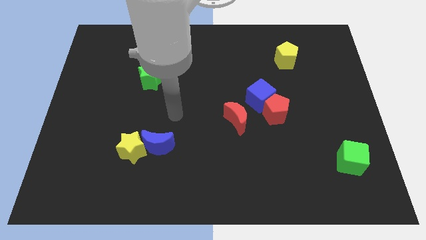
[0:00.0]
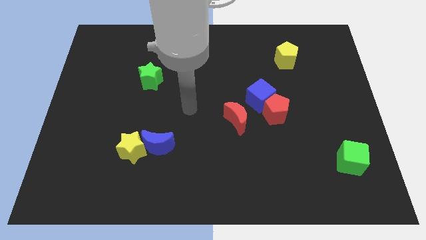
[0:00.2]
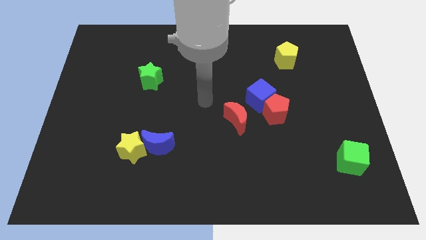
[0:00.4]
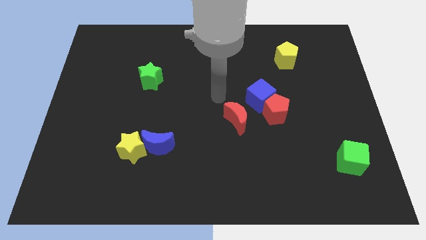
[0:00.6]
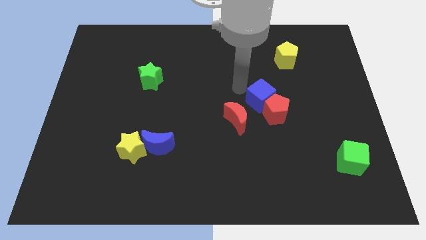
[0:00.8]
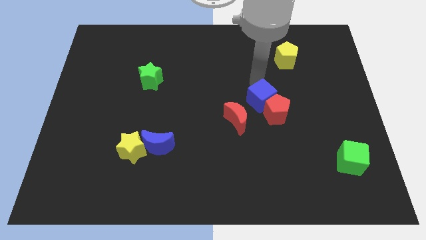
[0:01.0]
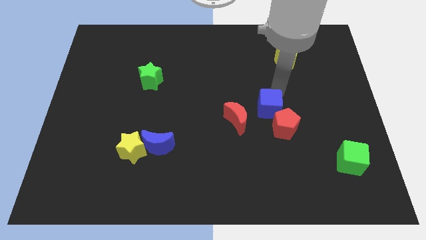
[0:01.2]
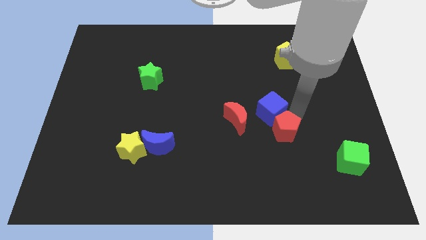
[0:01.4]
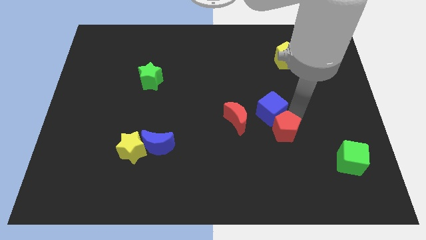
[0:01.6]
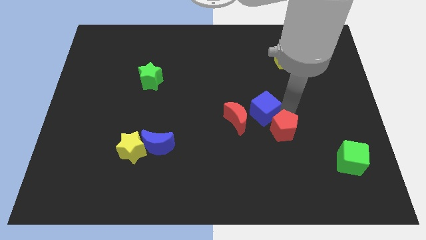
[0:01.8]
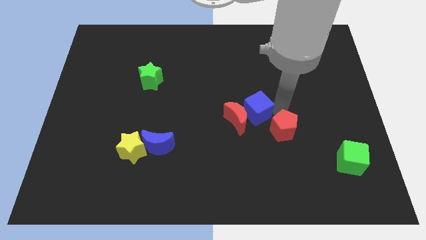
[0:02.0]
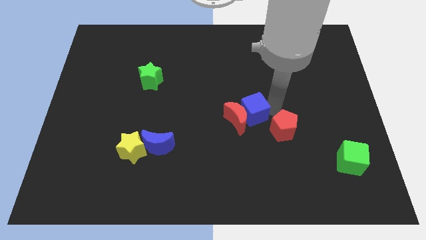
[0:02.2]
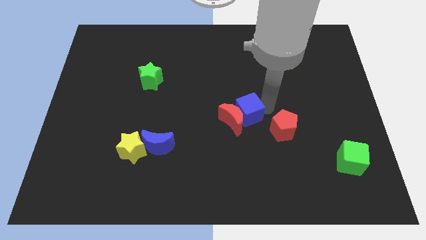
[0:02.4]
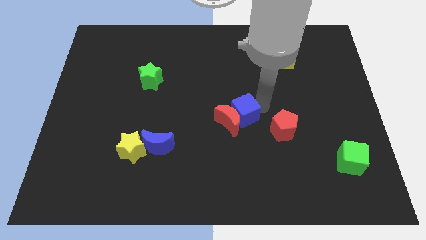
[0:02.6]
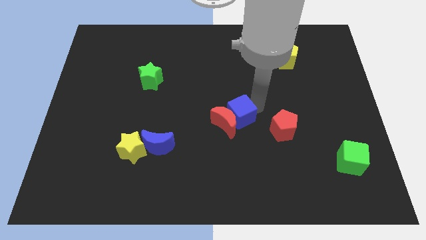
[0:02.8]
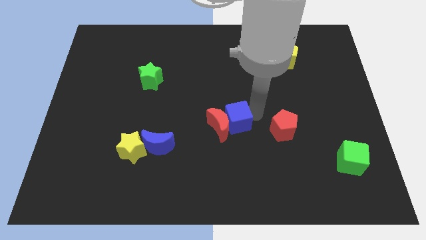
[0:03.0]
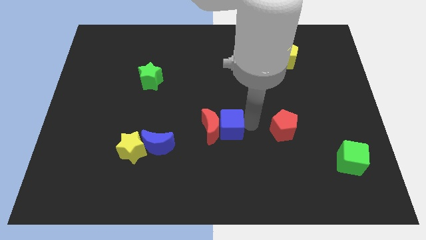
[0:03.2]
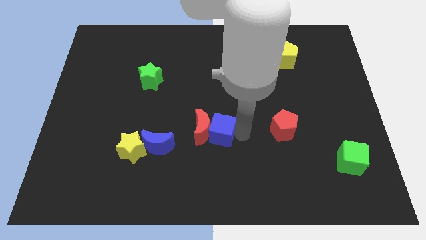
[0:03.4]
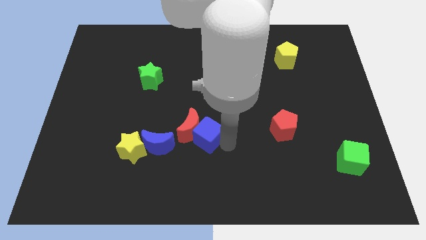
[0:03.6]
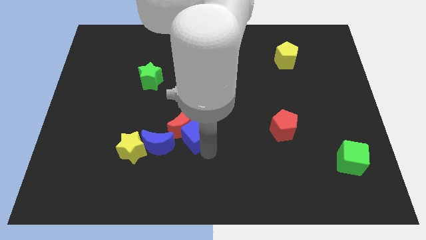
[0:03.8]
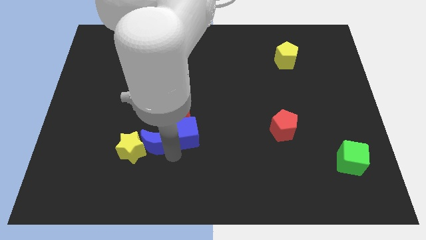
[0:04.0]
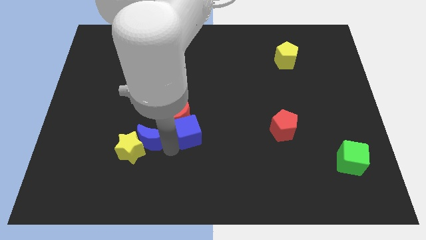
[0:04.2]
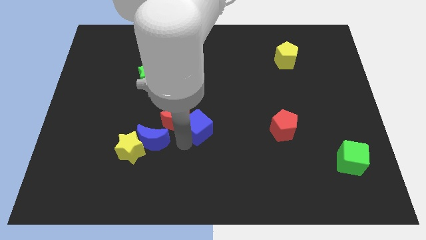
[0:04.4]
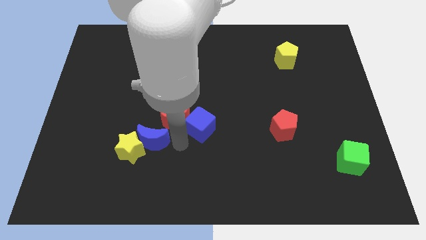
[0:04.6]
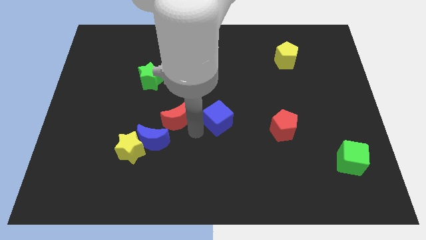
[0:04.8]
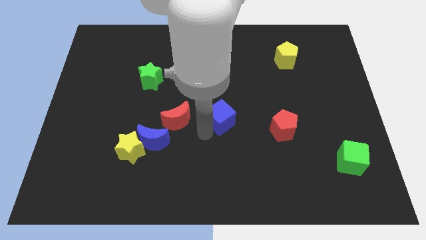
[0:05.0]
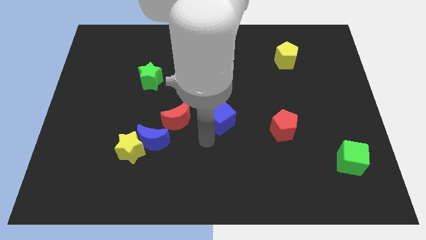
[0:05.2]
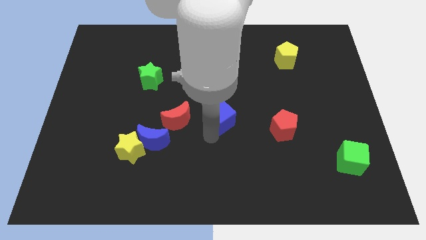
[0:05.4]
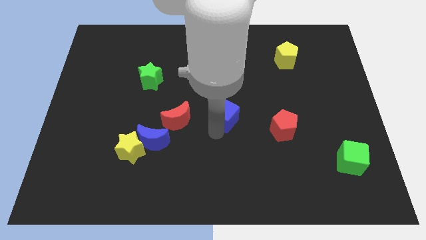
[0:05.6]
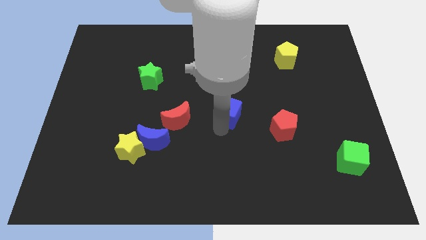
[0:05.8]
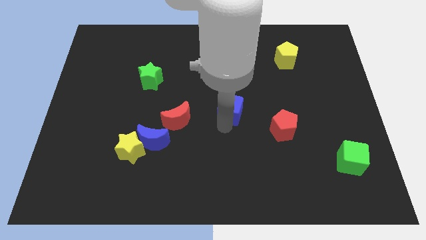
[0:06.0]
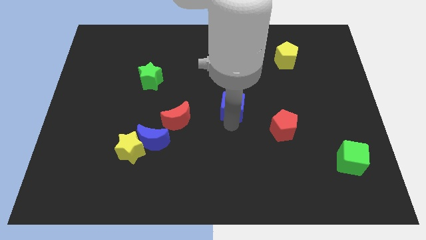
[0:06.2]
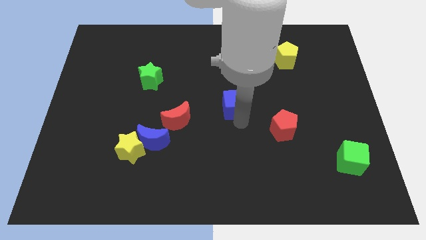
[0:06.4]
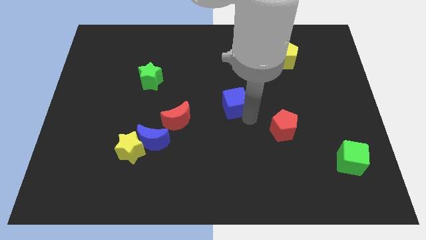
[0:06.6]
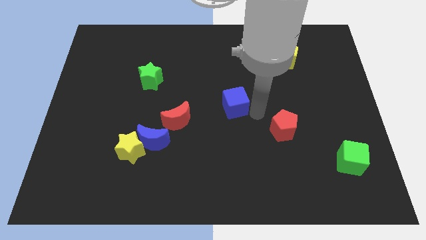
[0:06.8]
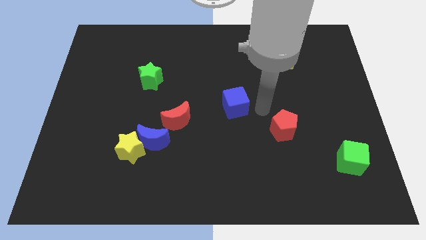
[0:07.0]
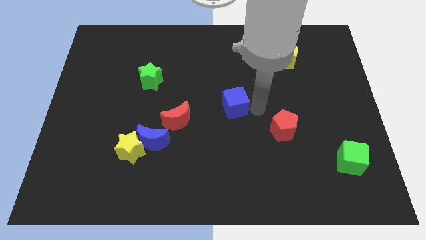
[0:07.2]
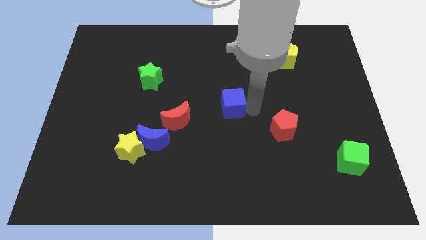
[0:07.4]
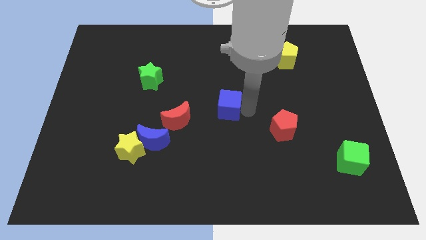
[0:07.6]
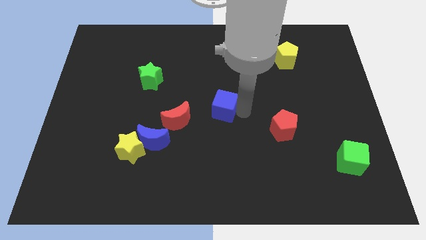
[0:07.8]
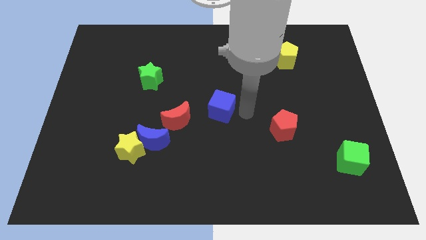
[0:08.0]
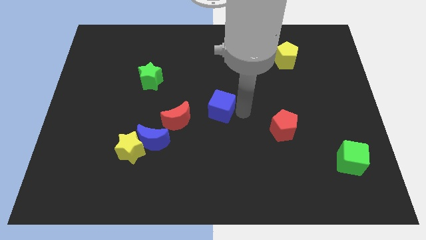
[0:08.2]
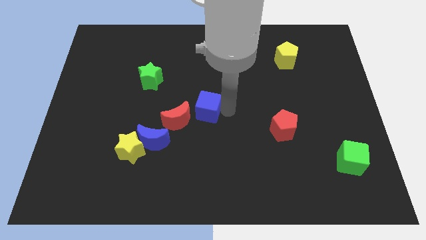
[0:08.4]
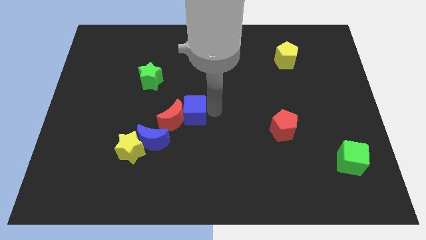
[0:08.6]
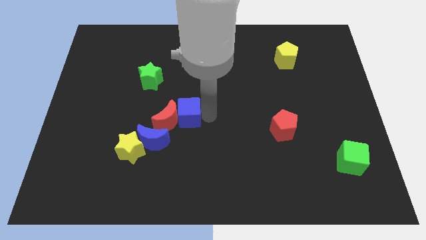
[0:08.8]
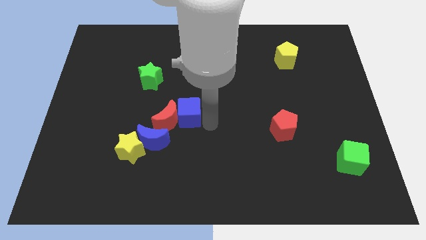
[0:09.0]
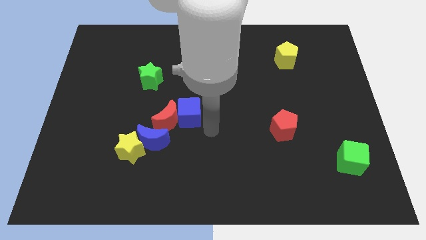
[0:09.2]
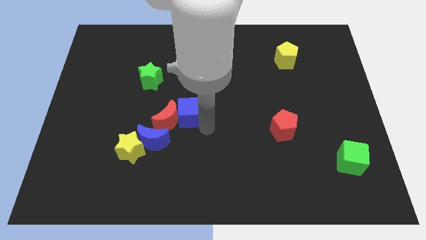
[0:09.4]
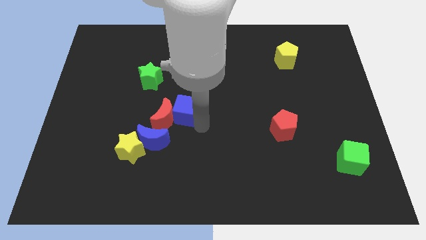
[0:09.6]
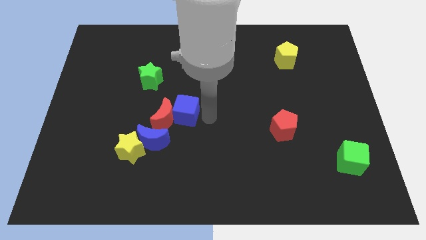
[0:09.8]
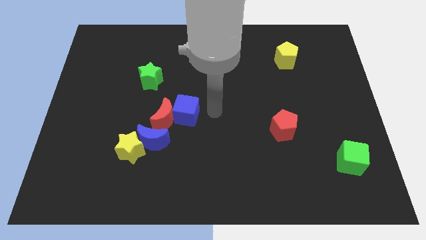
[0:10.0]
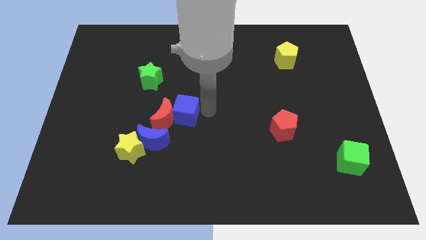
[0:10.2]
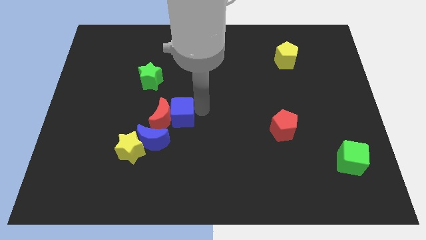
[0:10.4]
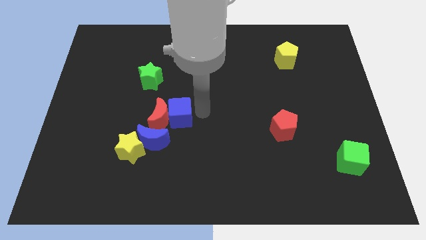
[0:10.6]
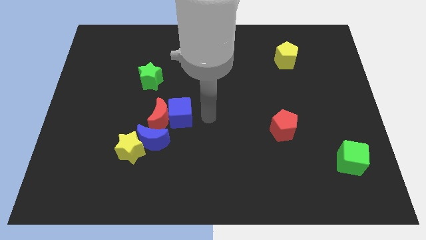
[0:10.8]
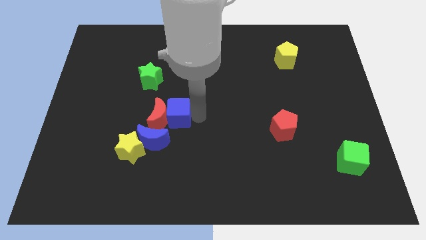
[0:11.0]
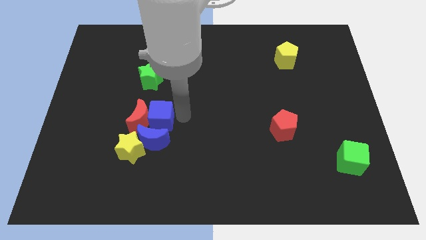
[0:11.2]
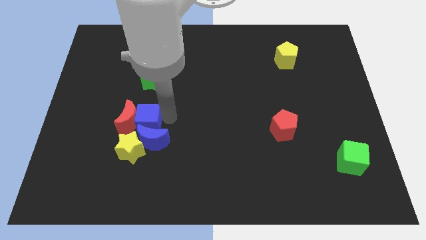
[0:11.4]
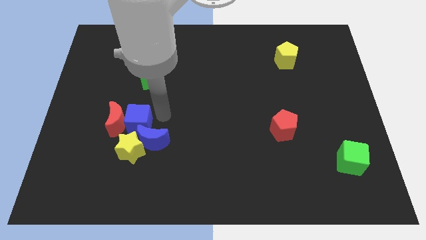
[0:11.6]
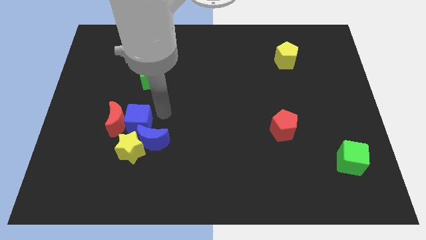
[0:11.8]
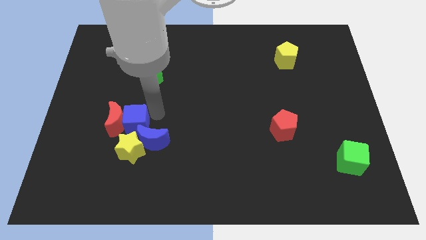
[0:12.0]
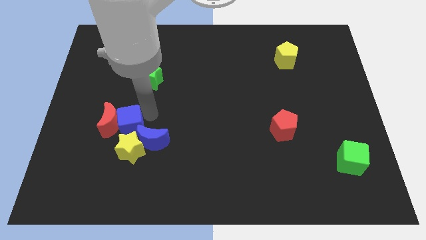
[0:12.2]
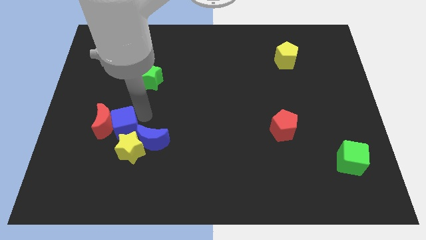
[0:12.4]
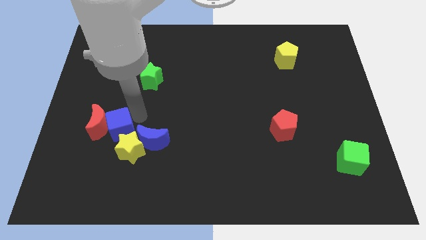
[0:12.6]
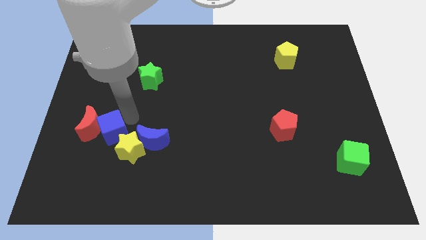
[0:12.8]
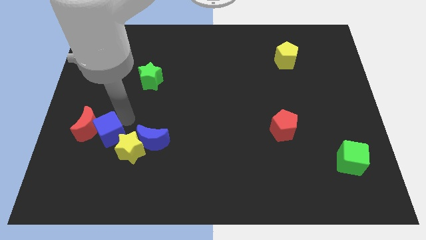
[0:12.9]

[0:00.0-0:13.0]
slide the blue cube to the left of the yellow star

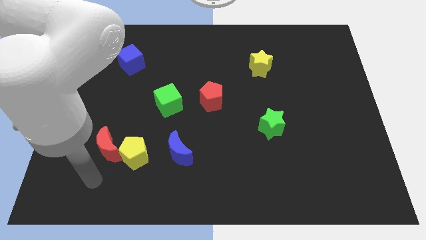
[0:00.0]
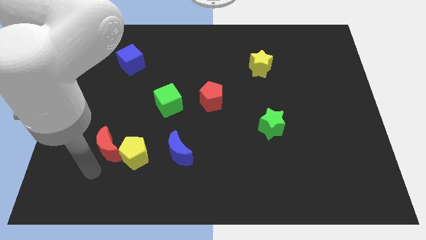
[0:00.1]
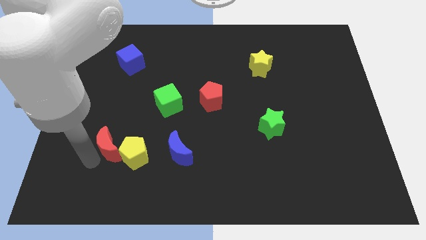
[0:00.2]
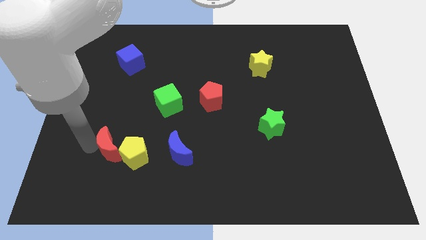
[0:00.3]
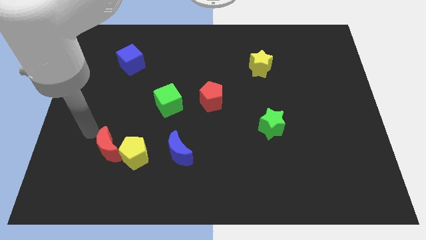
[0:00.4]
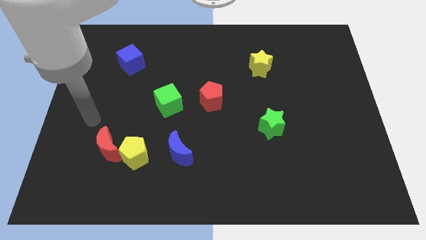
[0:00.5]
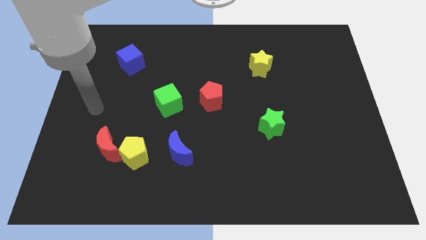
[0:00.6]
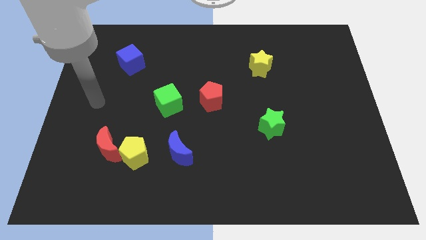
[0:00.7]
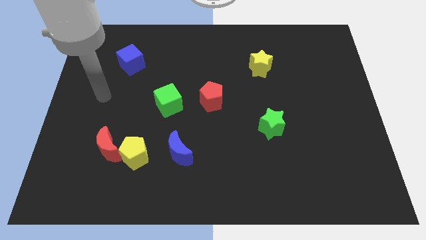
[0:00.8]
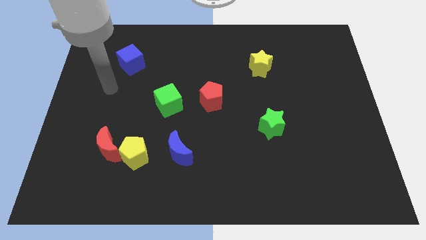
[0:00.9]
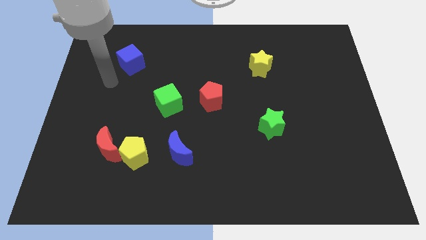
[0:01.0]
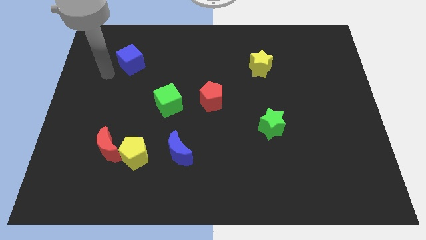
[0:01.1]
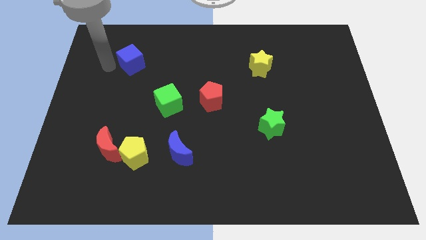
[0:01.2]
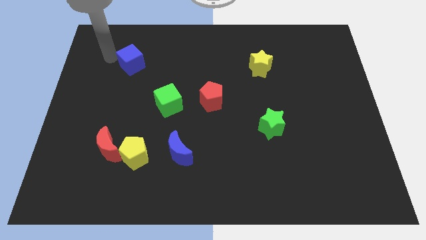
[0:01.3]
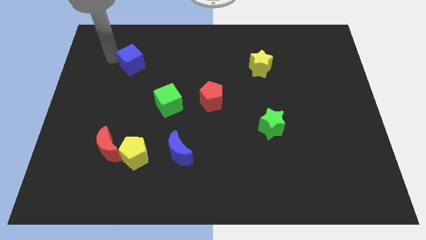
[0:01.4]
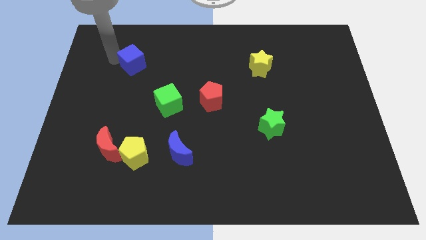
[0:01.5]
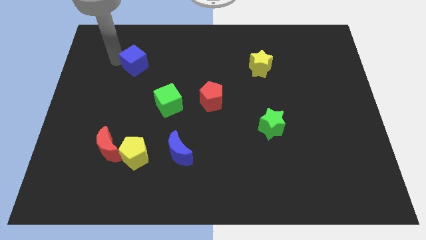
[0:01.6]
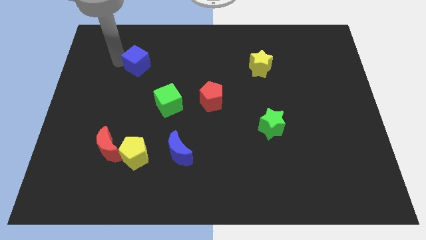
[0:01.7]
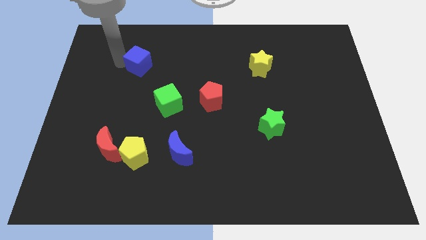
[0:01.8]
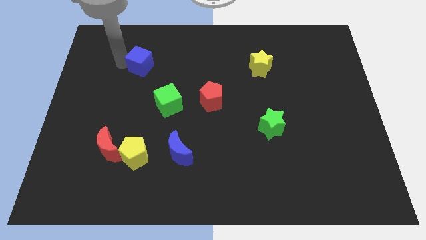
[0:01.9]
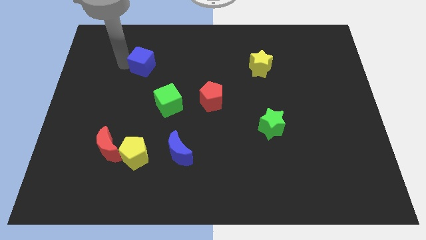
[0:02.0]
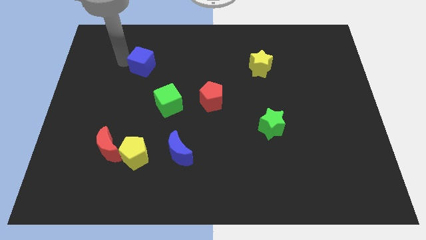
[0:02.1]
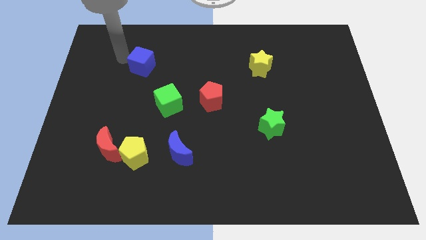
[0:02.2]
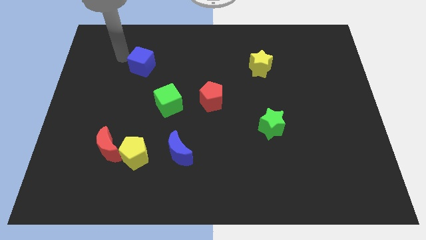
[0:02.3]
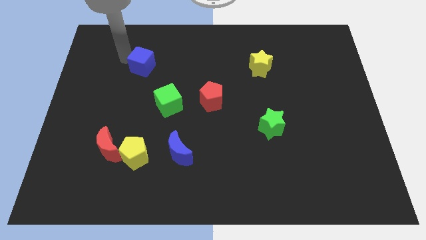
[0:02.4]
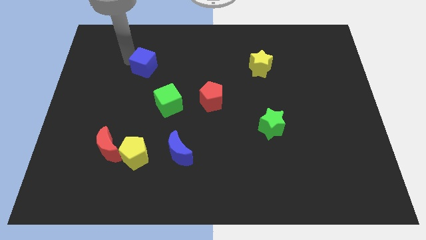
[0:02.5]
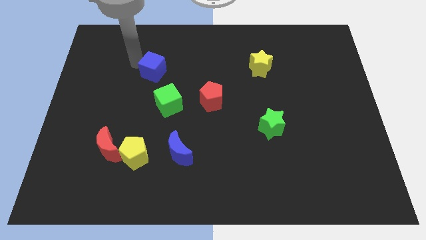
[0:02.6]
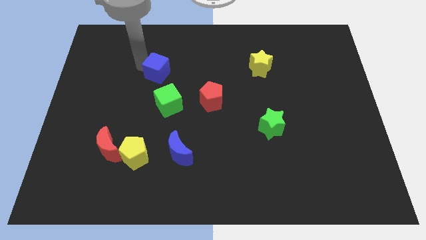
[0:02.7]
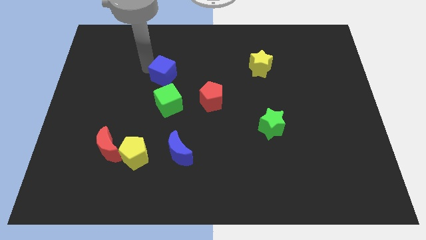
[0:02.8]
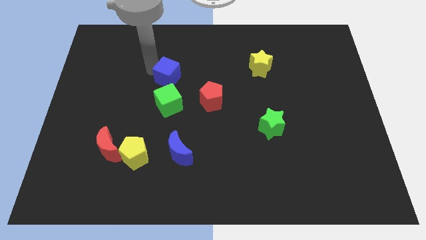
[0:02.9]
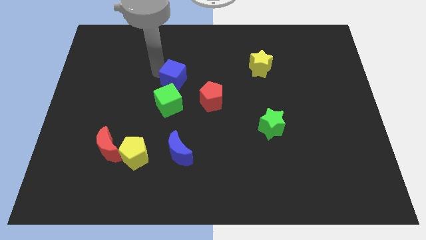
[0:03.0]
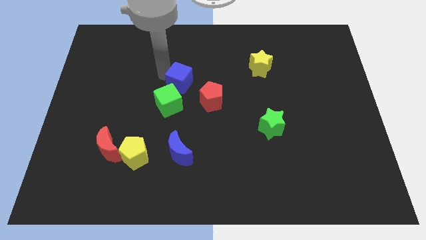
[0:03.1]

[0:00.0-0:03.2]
slide the blue cube to the top right side of the green cube
